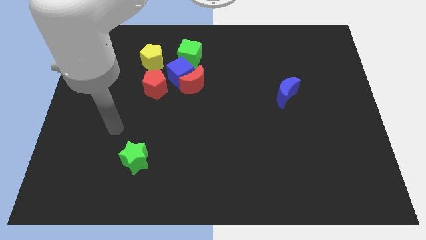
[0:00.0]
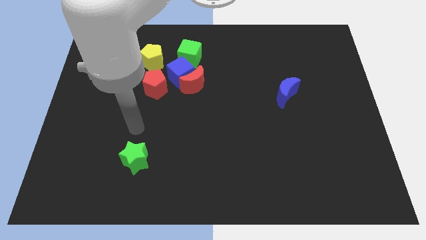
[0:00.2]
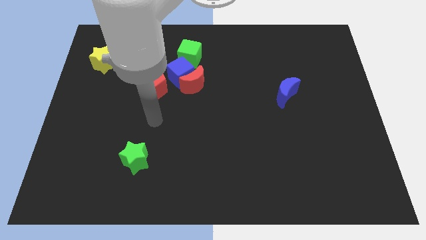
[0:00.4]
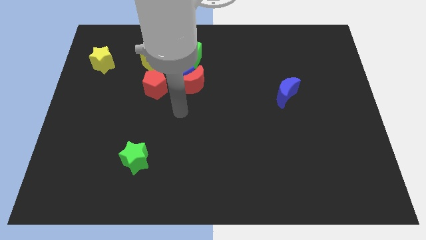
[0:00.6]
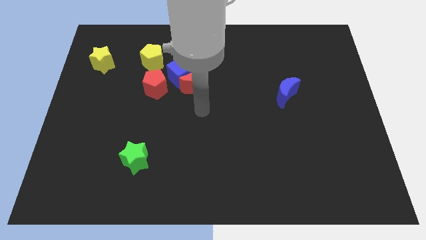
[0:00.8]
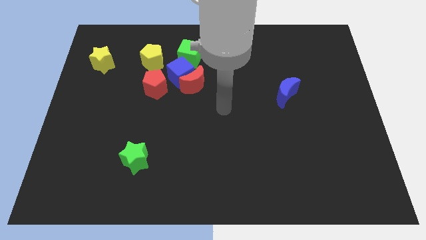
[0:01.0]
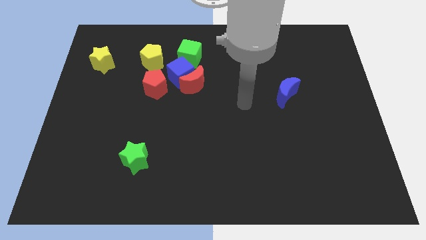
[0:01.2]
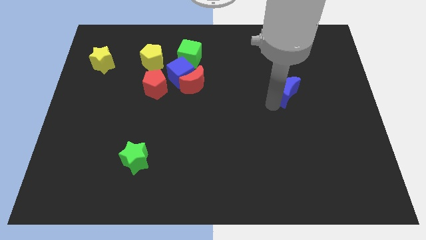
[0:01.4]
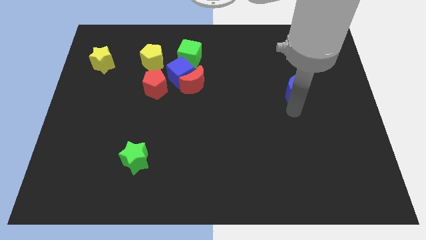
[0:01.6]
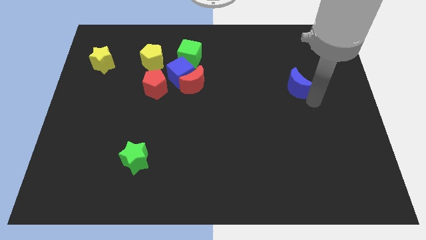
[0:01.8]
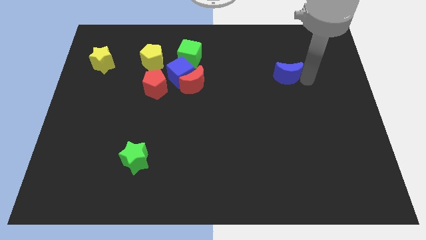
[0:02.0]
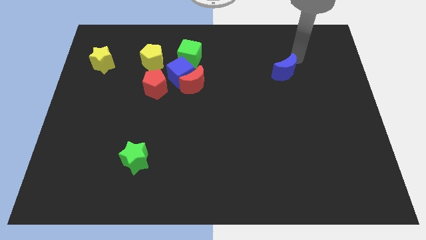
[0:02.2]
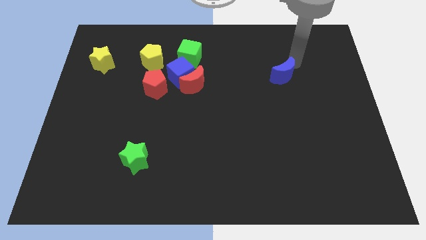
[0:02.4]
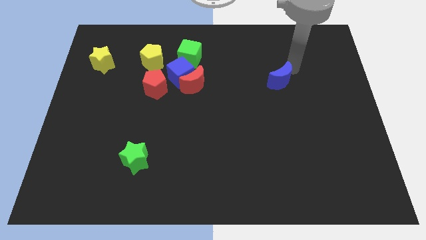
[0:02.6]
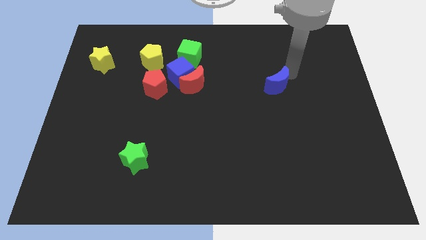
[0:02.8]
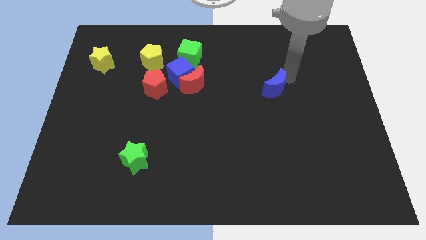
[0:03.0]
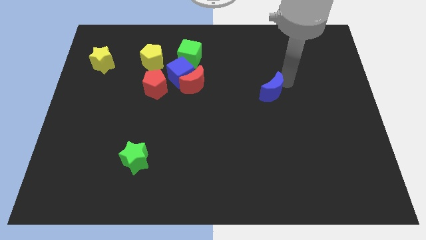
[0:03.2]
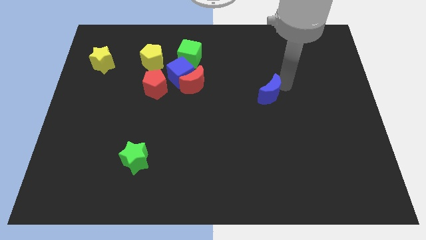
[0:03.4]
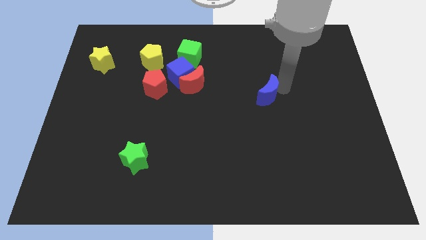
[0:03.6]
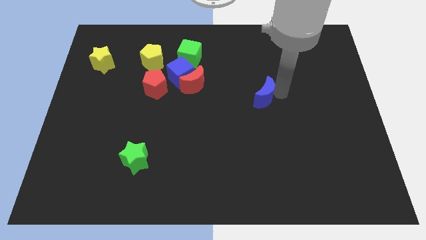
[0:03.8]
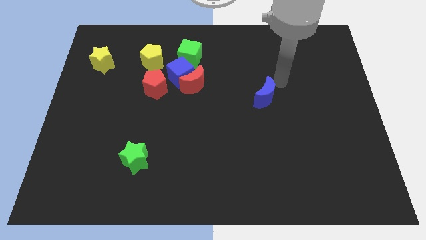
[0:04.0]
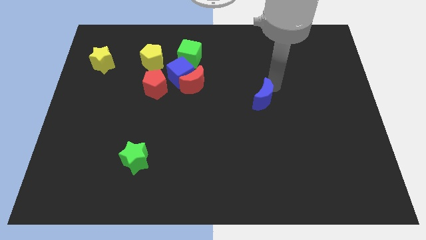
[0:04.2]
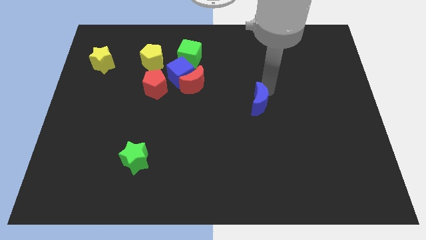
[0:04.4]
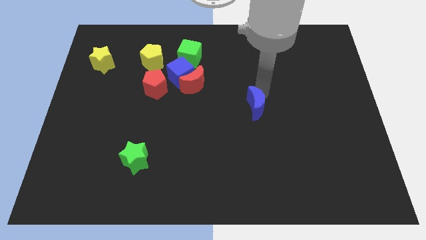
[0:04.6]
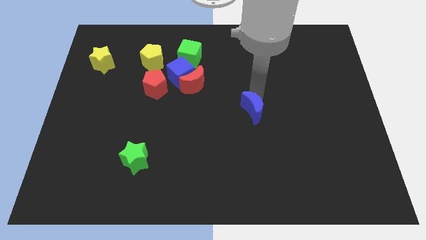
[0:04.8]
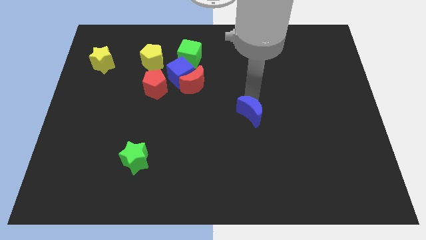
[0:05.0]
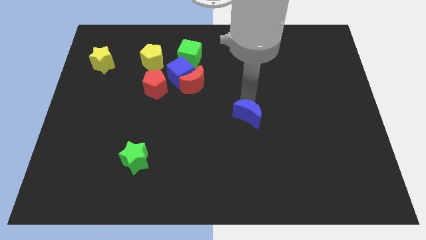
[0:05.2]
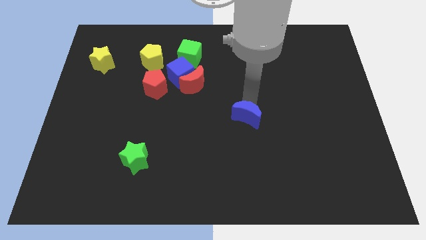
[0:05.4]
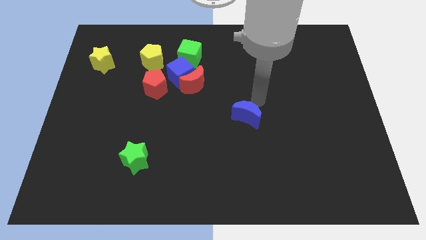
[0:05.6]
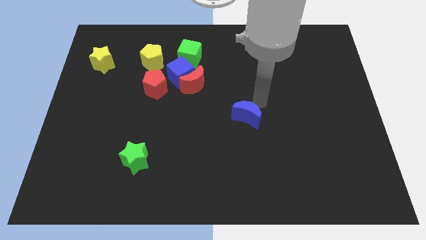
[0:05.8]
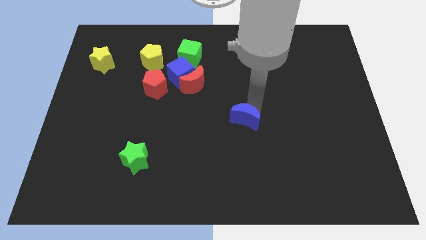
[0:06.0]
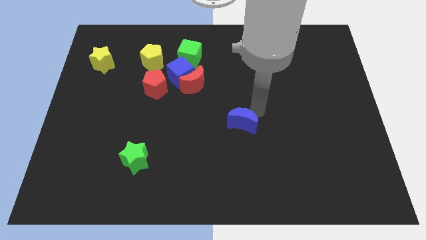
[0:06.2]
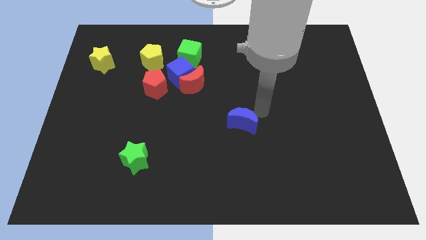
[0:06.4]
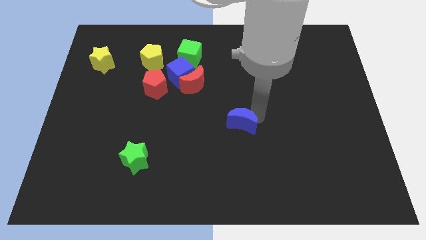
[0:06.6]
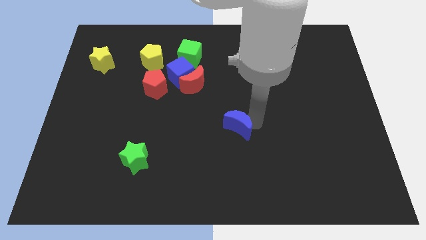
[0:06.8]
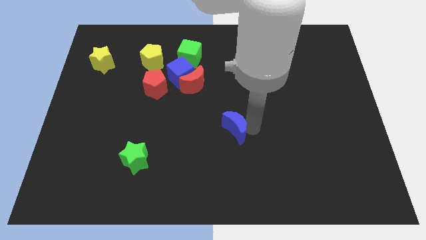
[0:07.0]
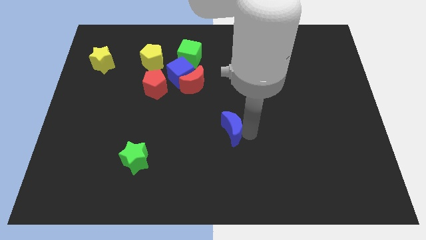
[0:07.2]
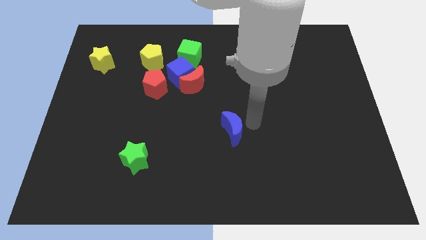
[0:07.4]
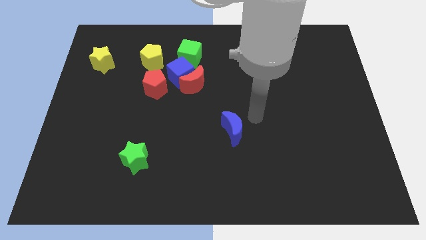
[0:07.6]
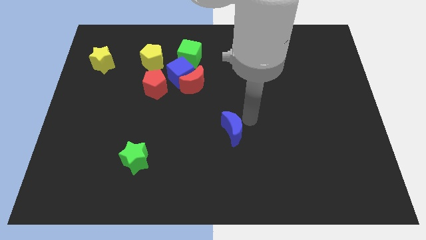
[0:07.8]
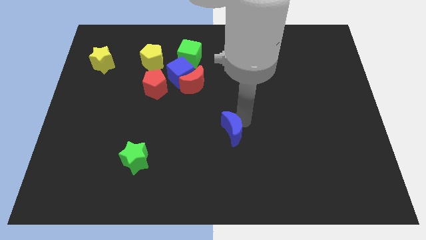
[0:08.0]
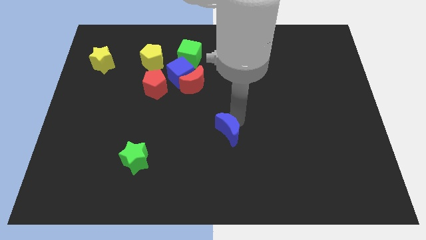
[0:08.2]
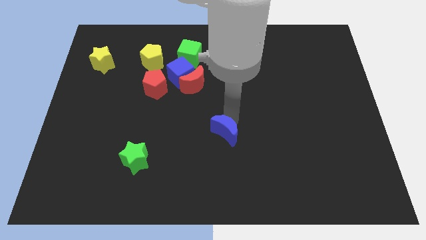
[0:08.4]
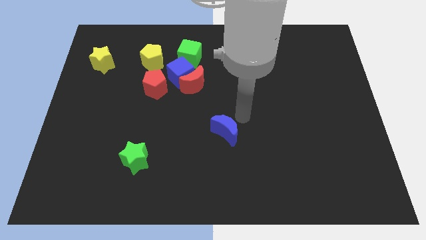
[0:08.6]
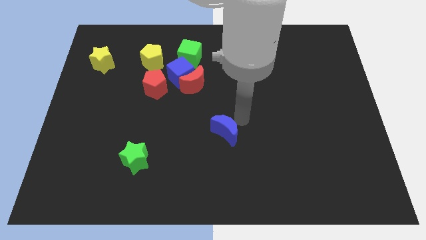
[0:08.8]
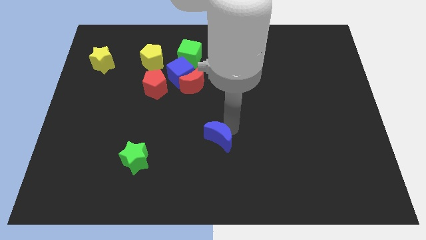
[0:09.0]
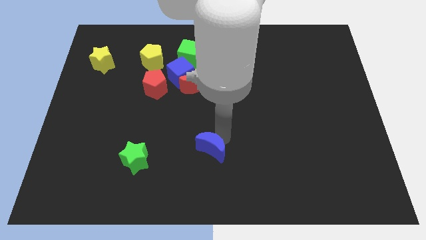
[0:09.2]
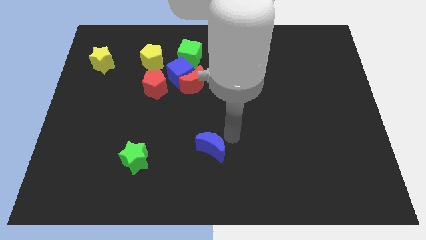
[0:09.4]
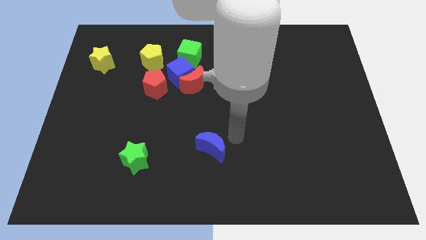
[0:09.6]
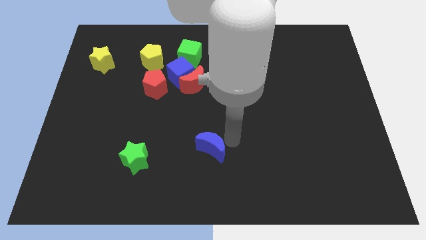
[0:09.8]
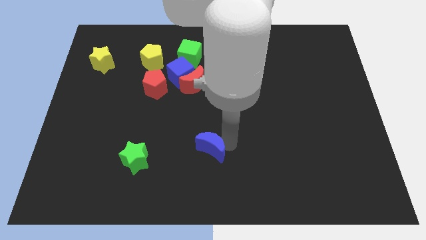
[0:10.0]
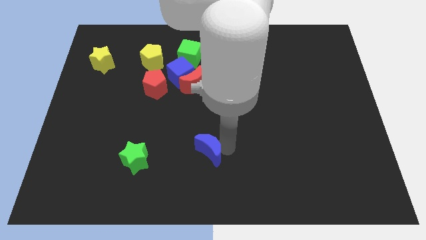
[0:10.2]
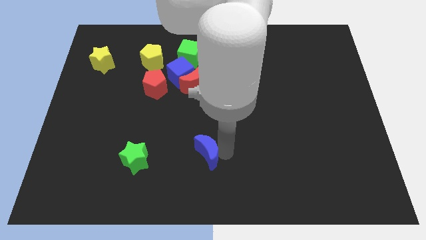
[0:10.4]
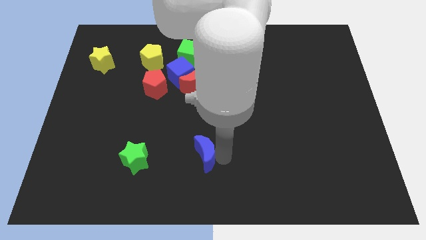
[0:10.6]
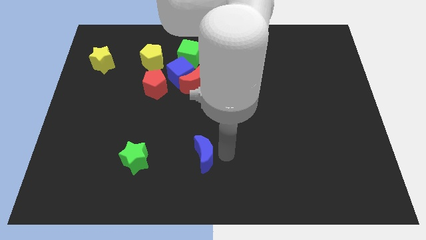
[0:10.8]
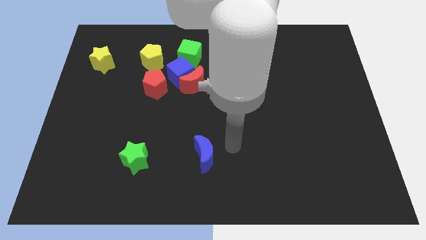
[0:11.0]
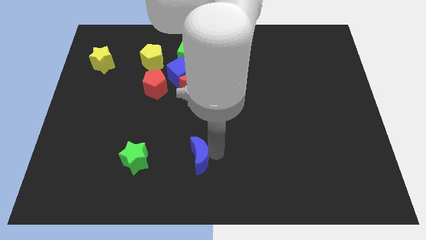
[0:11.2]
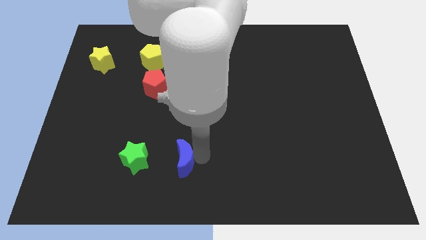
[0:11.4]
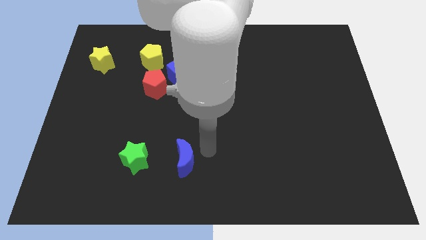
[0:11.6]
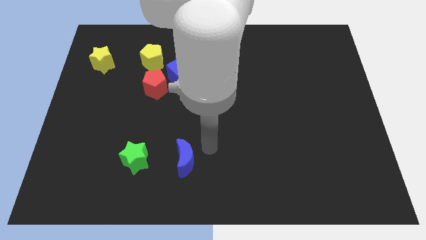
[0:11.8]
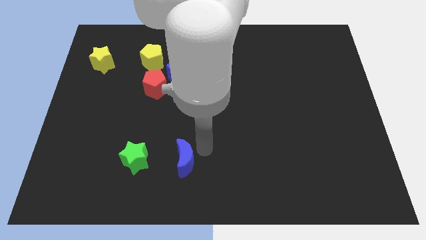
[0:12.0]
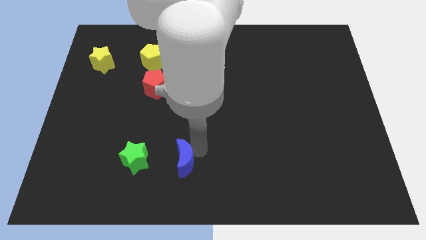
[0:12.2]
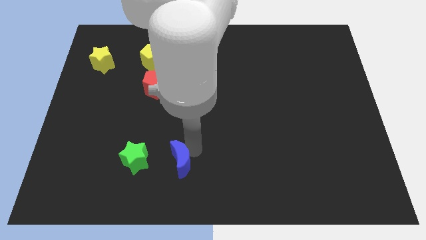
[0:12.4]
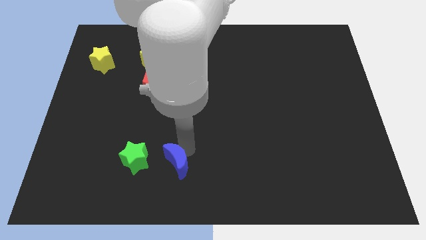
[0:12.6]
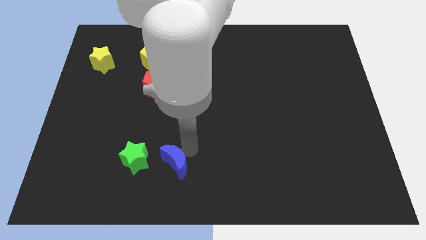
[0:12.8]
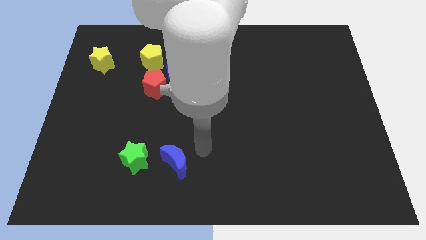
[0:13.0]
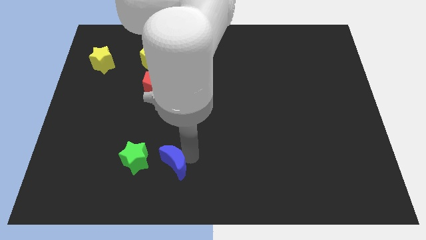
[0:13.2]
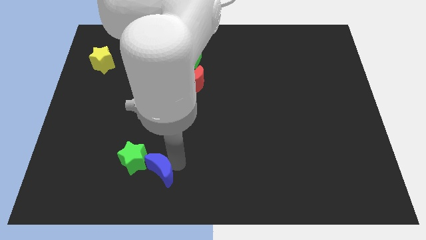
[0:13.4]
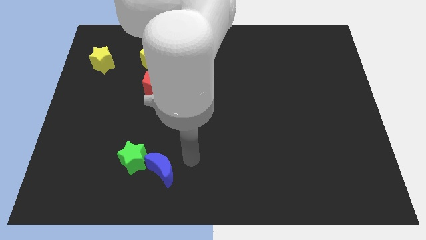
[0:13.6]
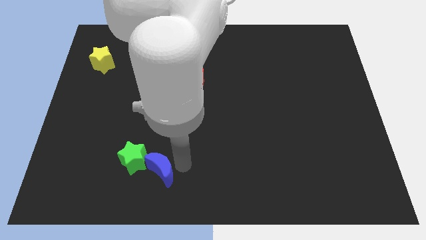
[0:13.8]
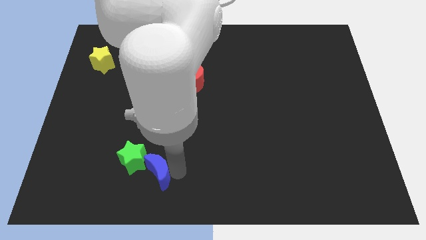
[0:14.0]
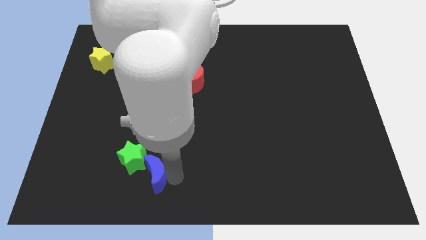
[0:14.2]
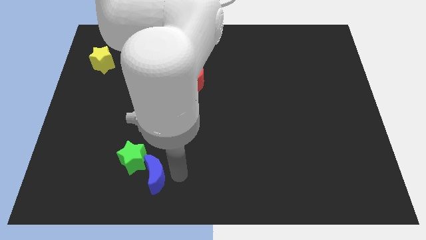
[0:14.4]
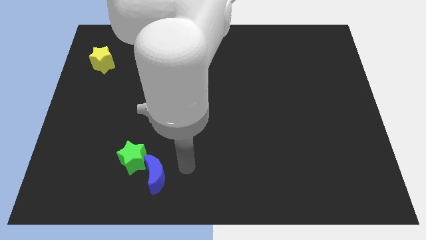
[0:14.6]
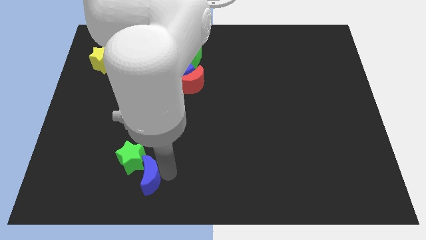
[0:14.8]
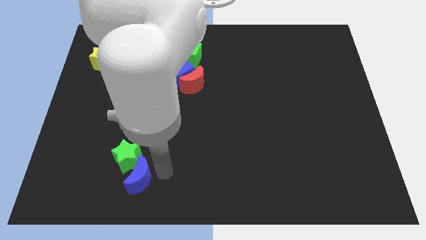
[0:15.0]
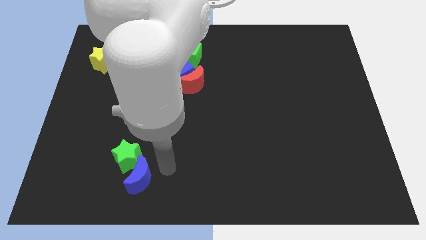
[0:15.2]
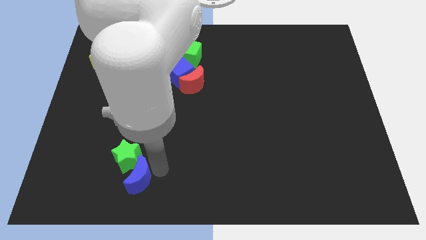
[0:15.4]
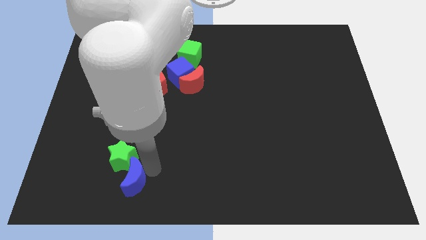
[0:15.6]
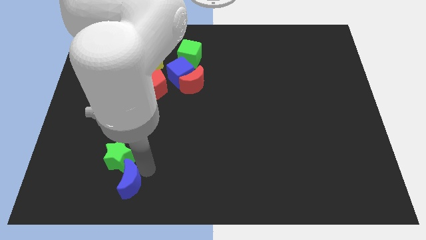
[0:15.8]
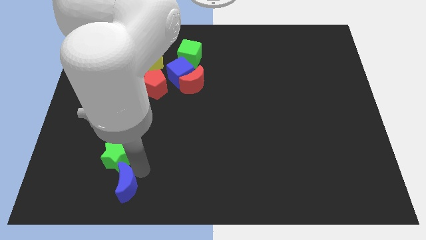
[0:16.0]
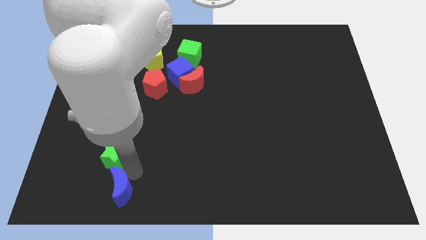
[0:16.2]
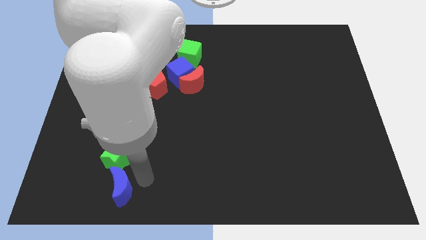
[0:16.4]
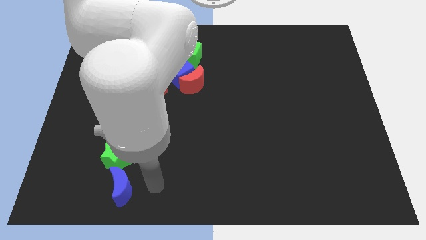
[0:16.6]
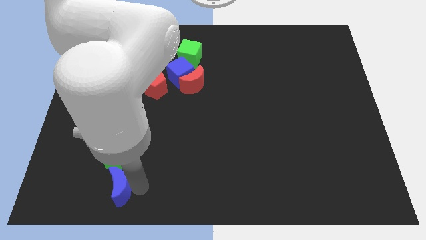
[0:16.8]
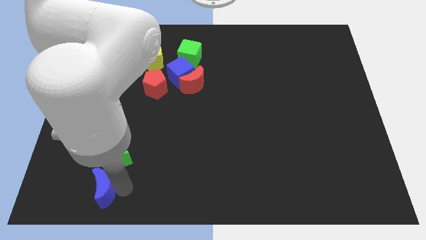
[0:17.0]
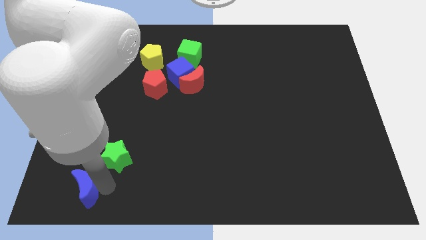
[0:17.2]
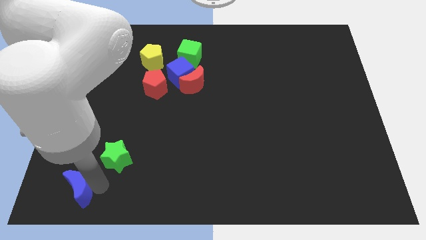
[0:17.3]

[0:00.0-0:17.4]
put the blue moon to the bottom left of the board
